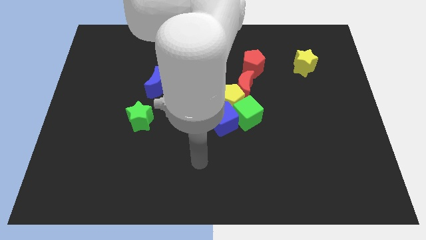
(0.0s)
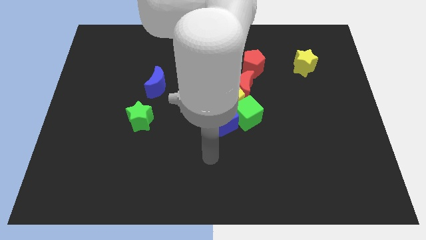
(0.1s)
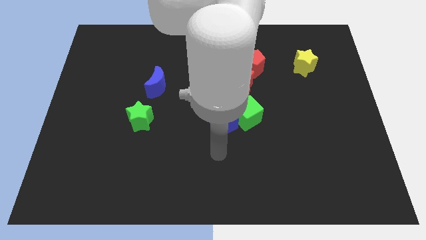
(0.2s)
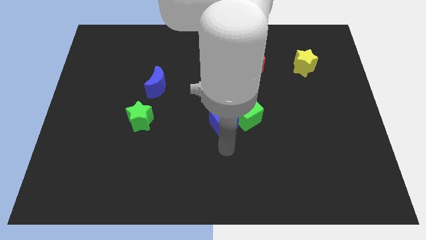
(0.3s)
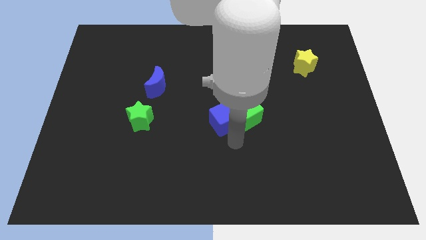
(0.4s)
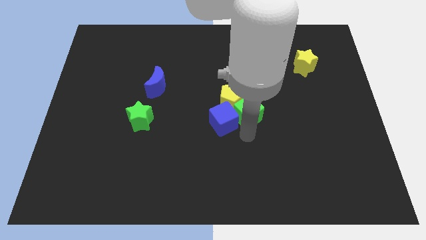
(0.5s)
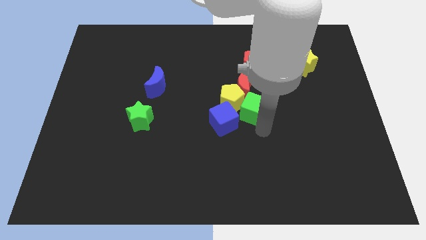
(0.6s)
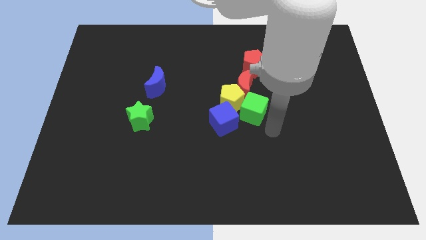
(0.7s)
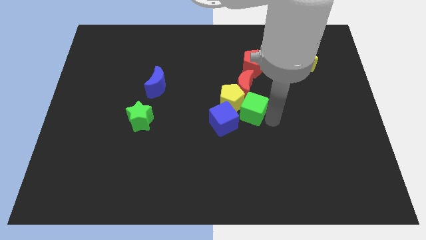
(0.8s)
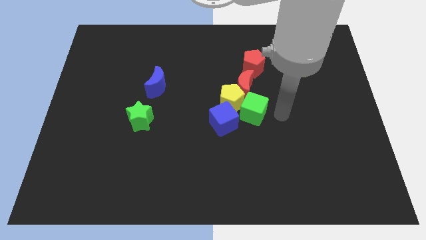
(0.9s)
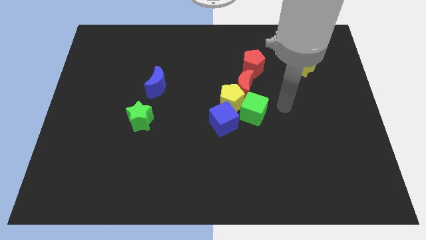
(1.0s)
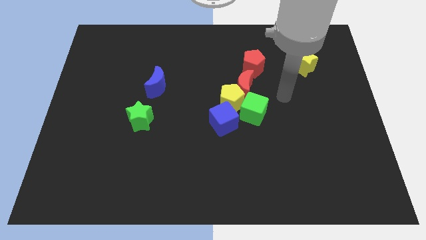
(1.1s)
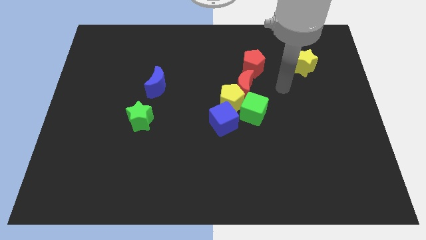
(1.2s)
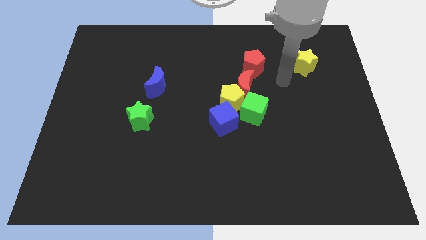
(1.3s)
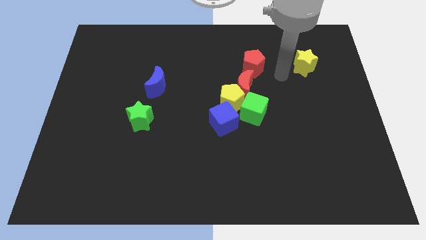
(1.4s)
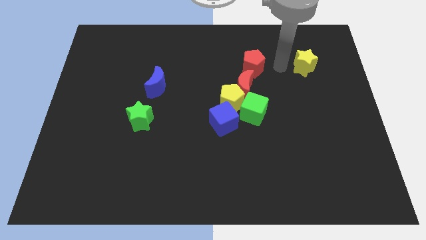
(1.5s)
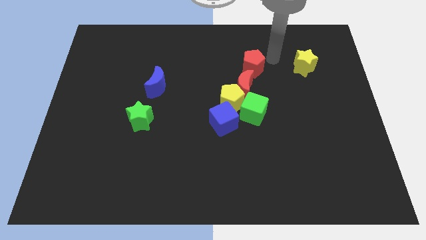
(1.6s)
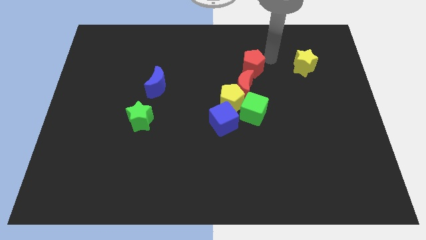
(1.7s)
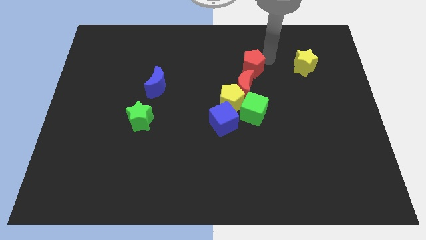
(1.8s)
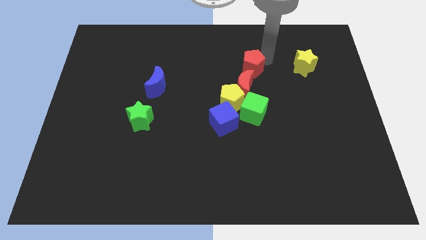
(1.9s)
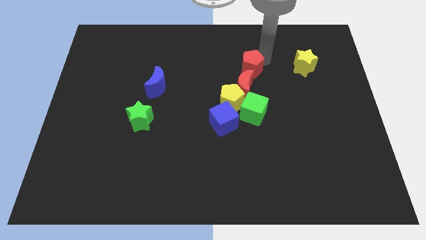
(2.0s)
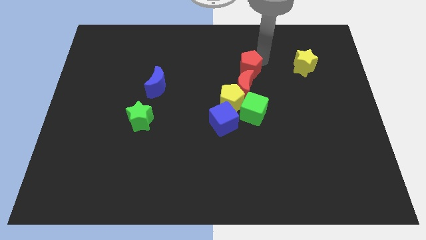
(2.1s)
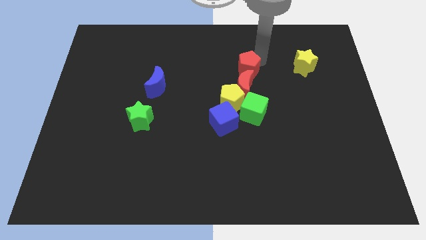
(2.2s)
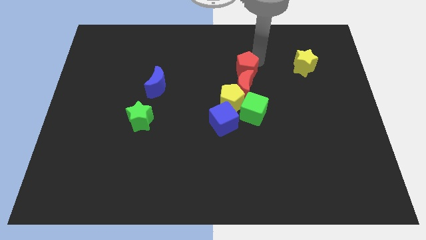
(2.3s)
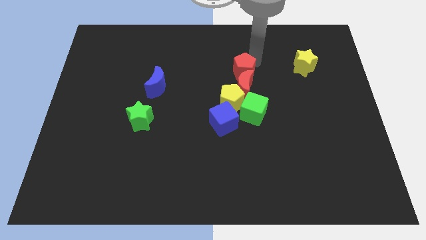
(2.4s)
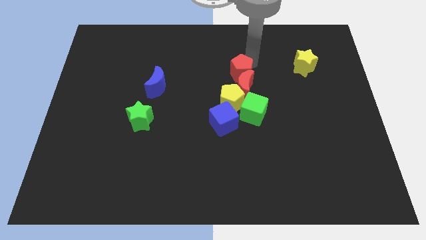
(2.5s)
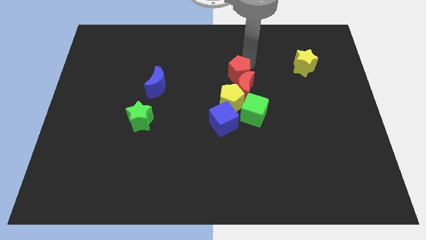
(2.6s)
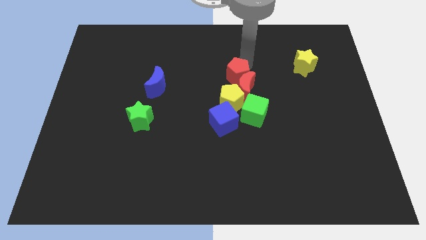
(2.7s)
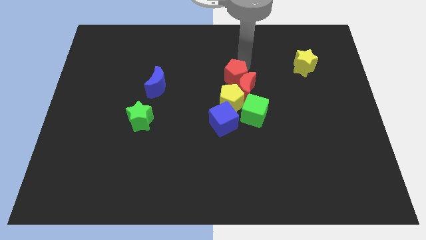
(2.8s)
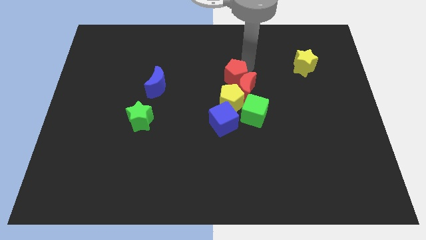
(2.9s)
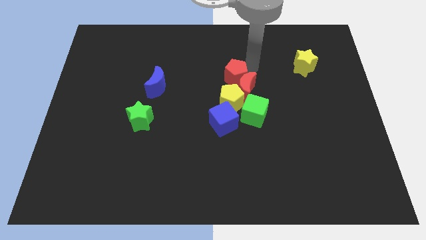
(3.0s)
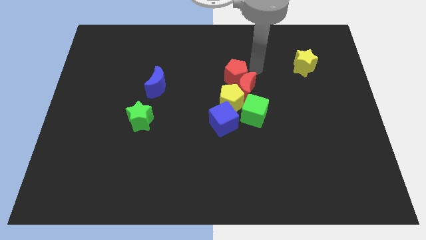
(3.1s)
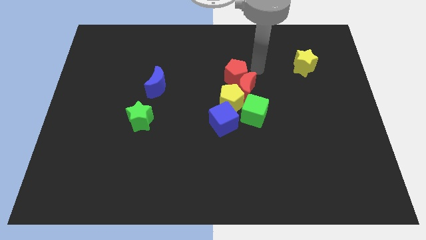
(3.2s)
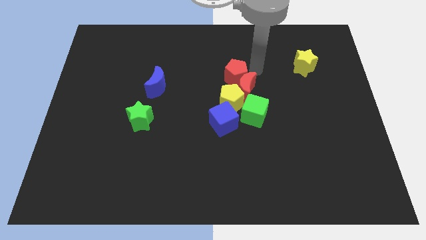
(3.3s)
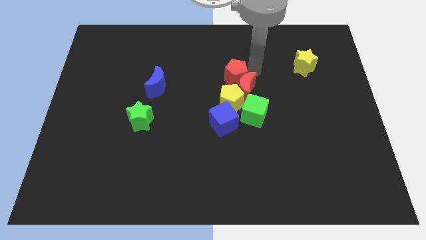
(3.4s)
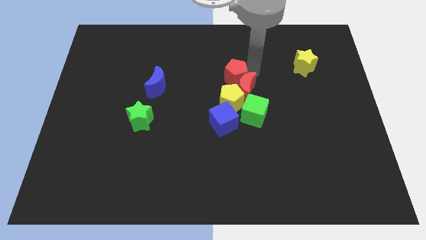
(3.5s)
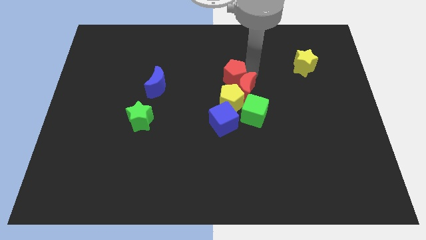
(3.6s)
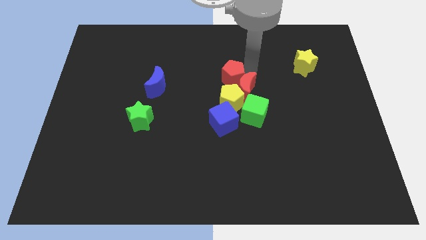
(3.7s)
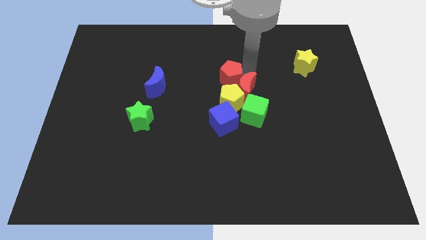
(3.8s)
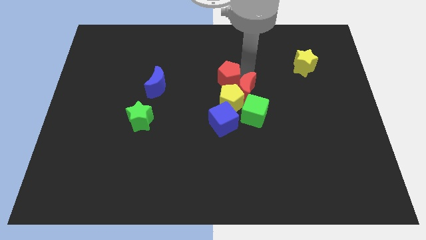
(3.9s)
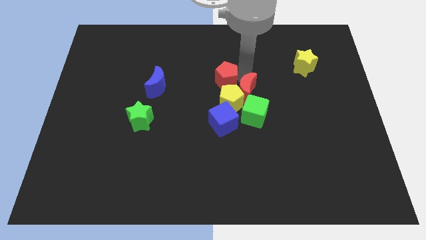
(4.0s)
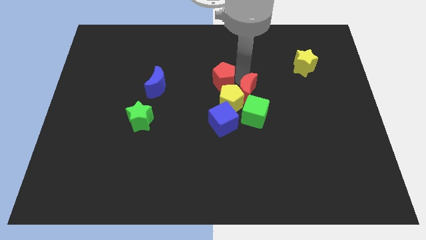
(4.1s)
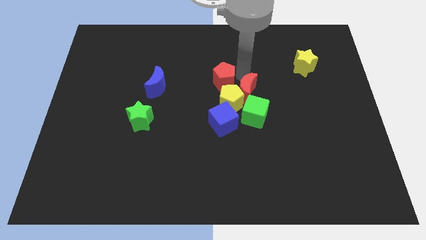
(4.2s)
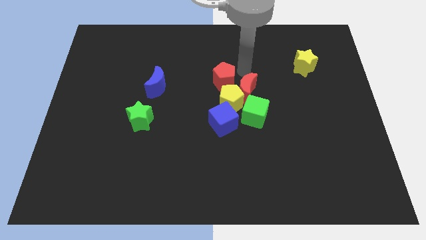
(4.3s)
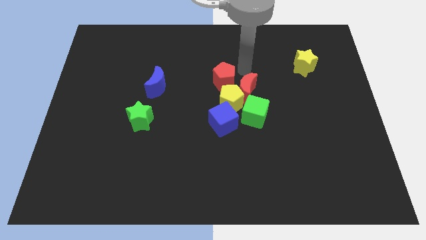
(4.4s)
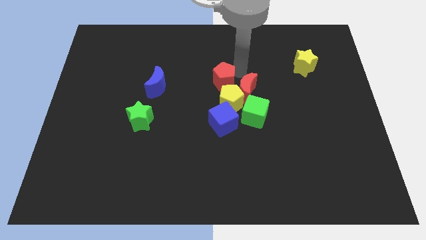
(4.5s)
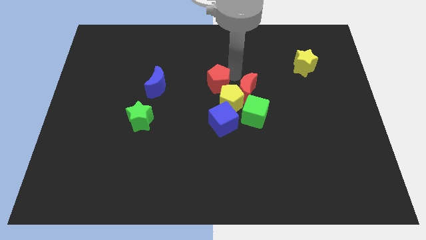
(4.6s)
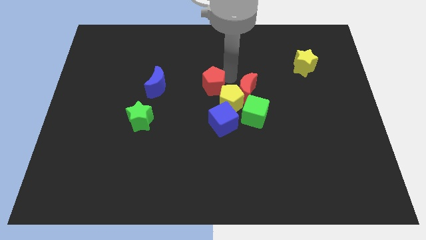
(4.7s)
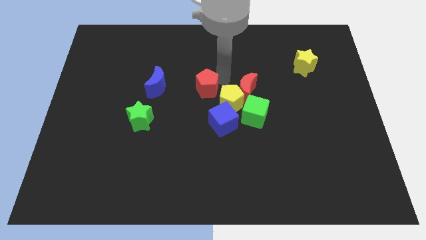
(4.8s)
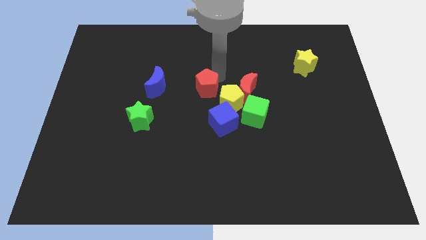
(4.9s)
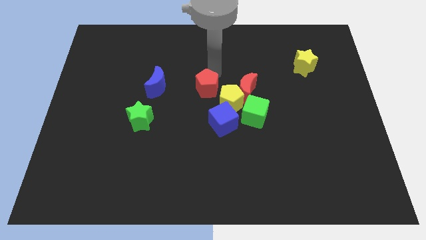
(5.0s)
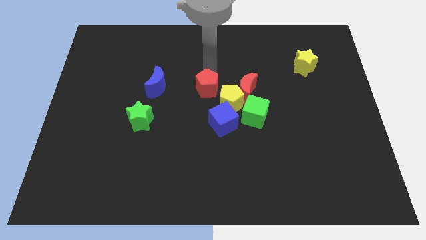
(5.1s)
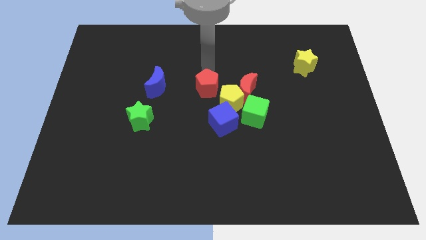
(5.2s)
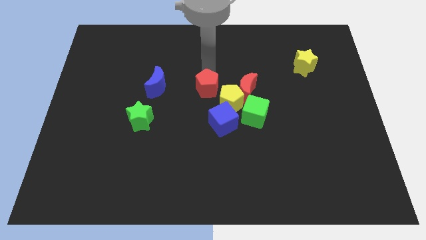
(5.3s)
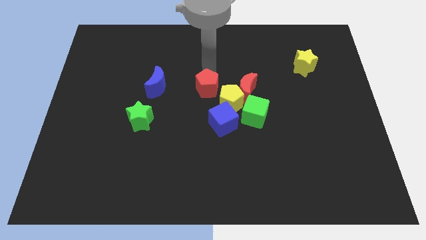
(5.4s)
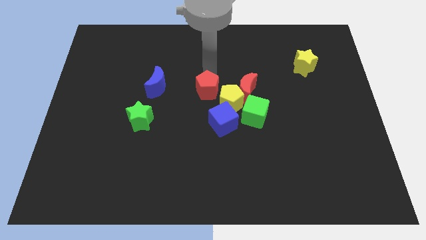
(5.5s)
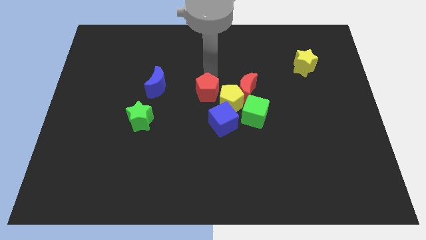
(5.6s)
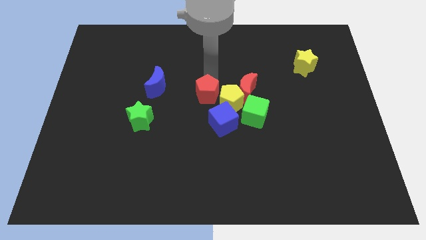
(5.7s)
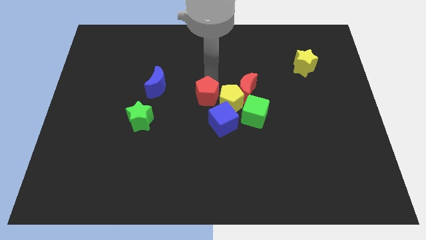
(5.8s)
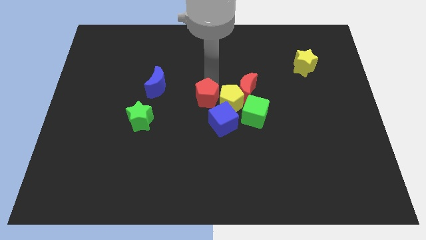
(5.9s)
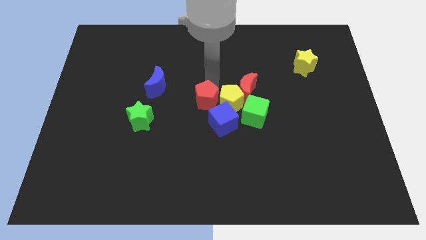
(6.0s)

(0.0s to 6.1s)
move the red pentagon to the bottom left of the yellow pentagon

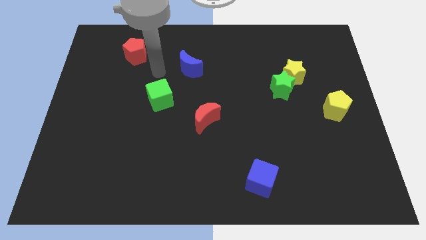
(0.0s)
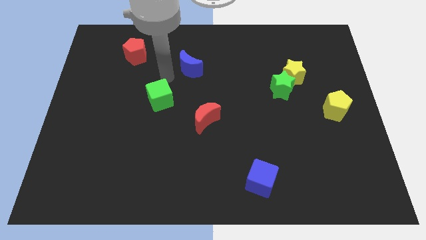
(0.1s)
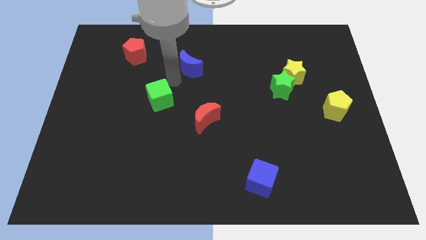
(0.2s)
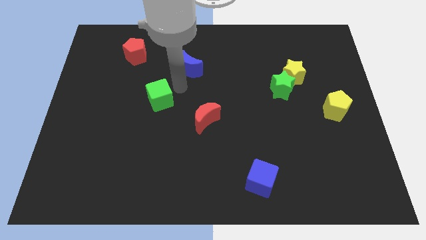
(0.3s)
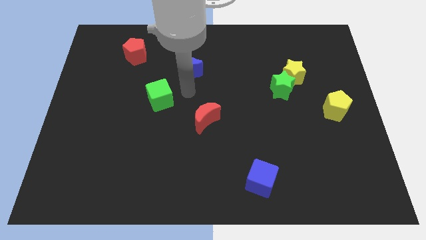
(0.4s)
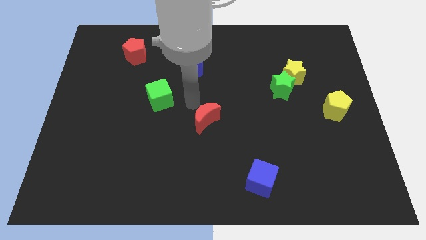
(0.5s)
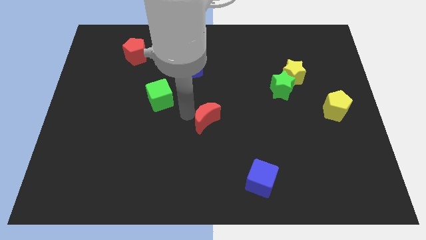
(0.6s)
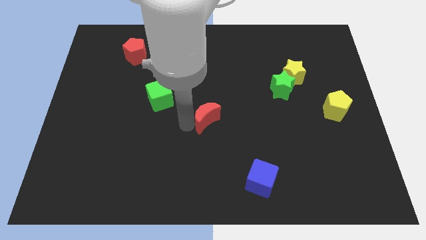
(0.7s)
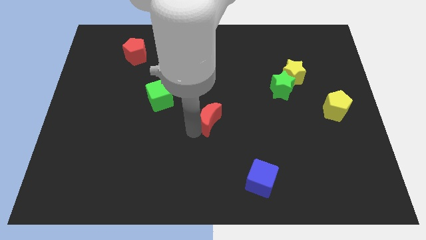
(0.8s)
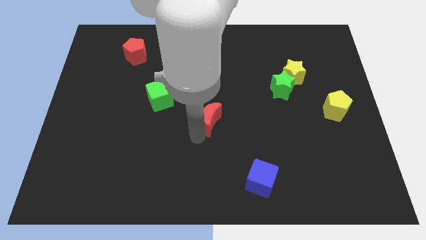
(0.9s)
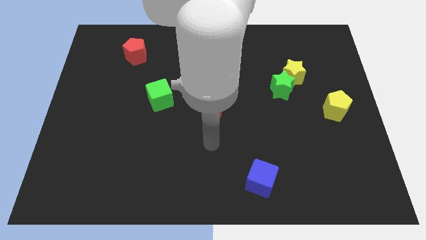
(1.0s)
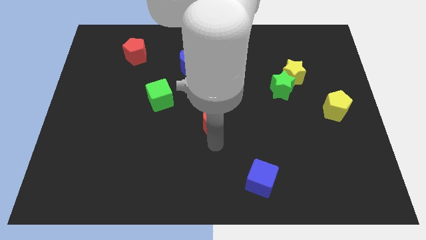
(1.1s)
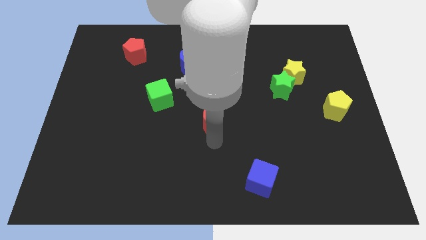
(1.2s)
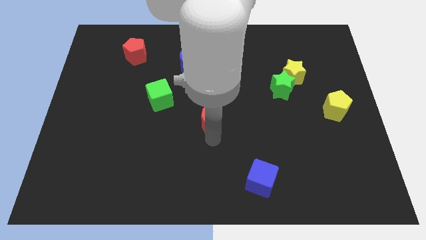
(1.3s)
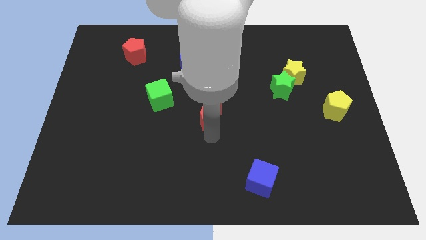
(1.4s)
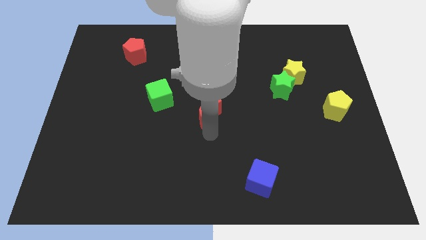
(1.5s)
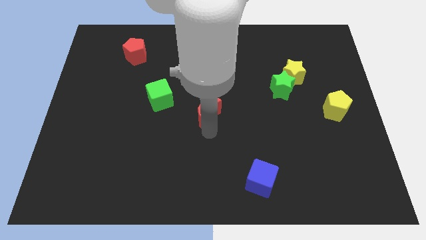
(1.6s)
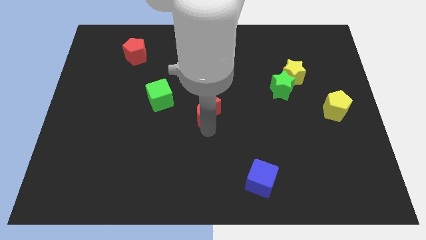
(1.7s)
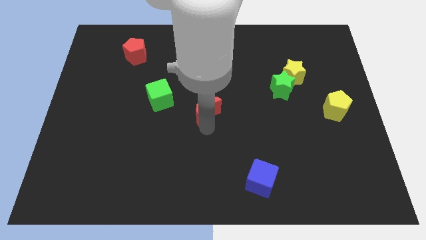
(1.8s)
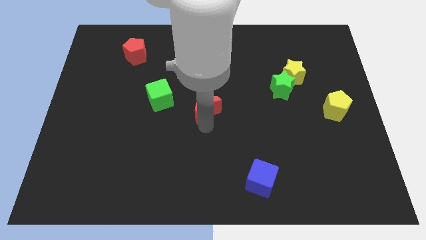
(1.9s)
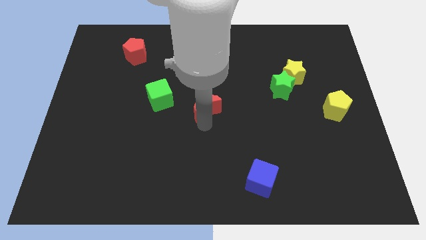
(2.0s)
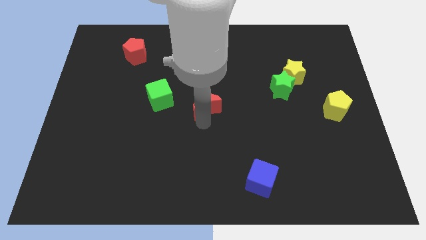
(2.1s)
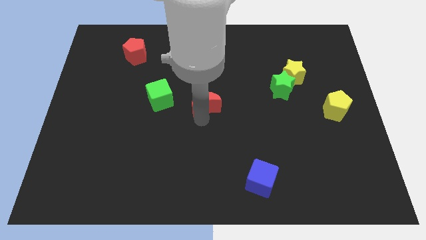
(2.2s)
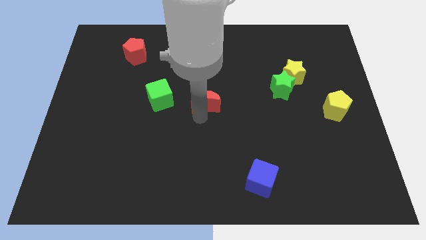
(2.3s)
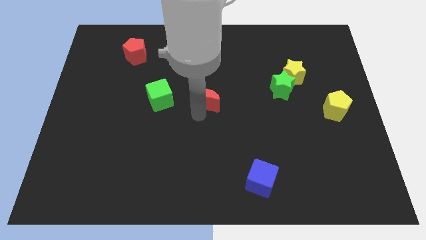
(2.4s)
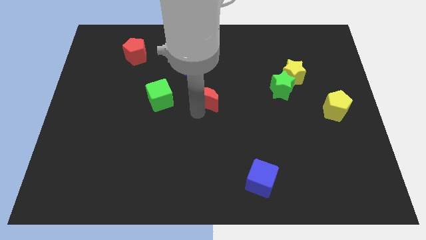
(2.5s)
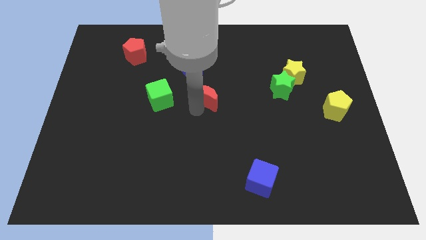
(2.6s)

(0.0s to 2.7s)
move the red moon to the bottom right side of the blue moon

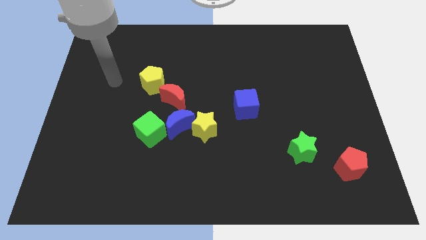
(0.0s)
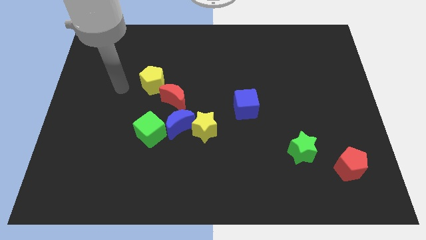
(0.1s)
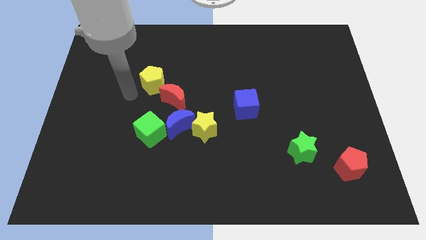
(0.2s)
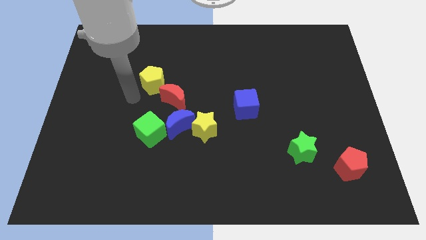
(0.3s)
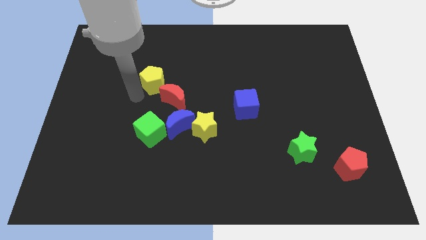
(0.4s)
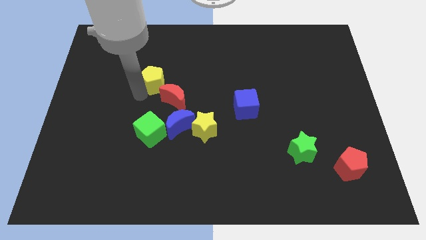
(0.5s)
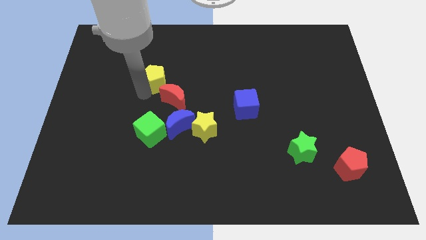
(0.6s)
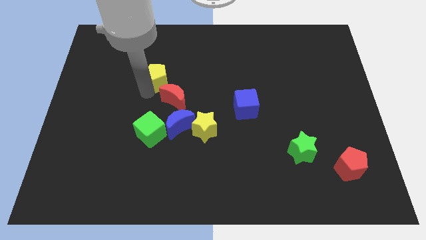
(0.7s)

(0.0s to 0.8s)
put the yellow pentagon to the top side of the red moon
